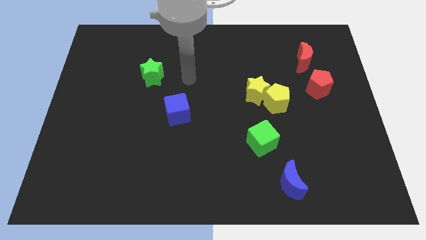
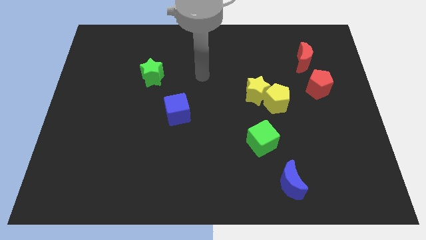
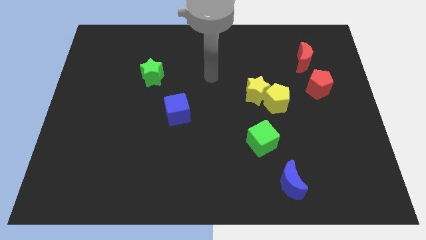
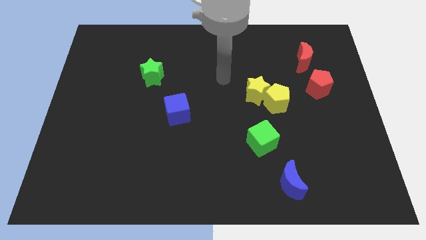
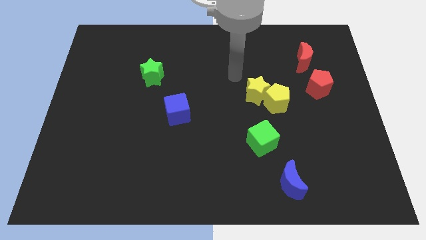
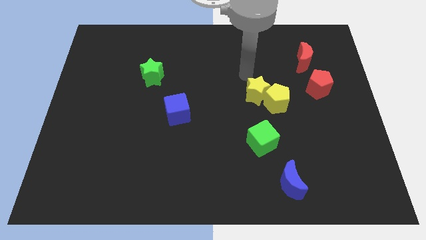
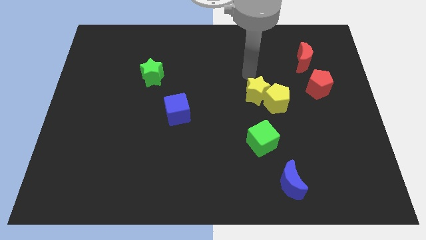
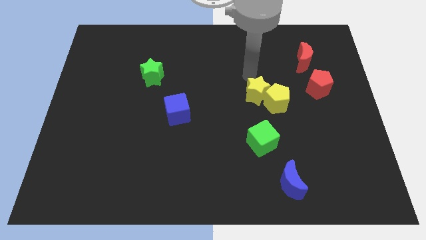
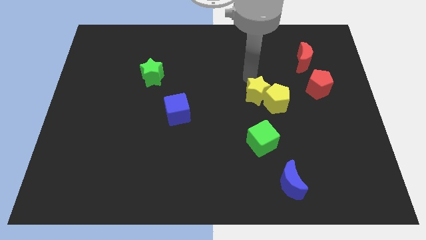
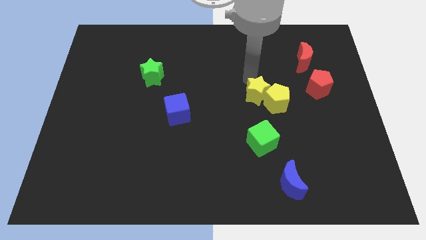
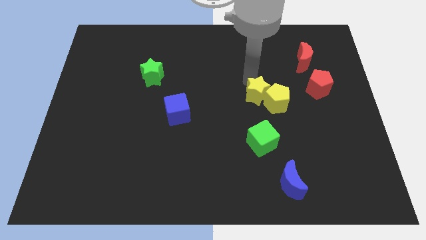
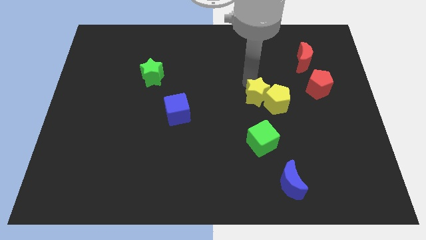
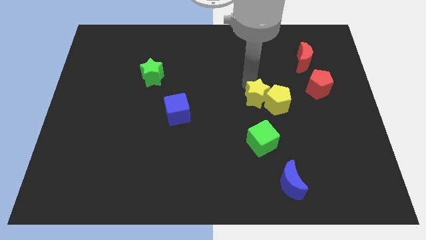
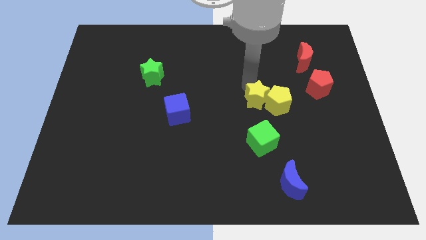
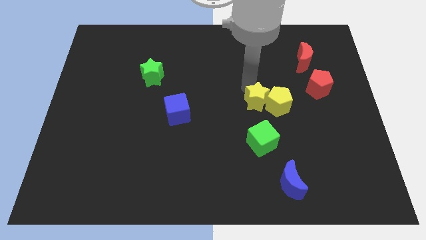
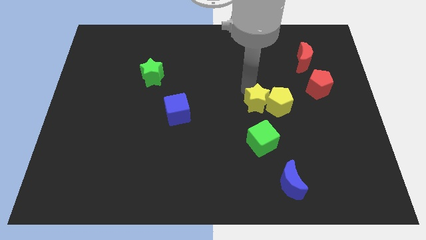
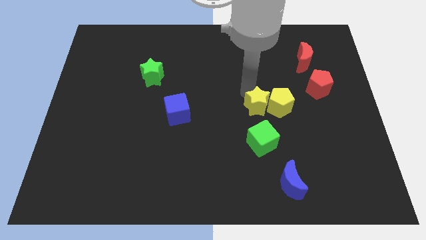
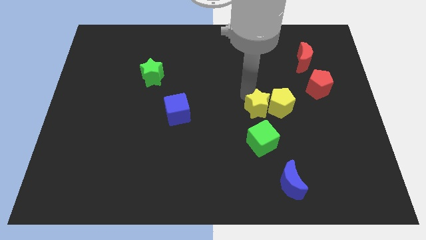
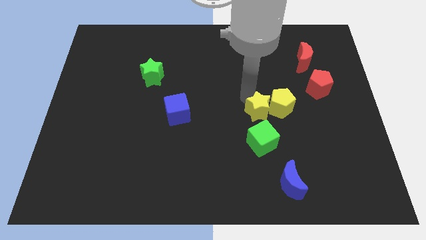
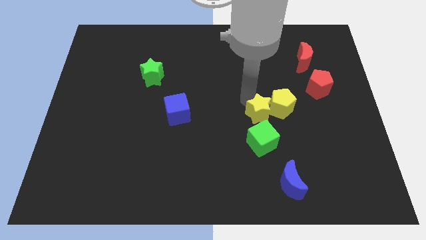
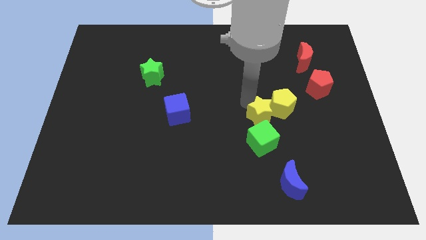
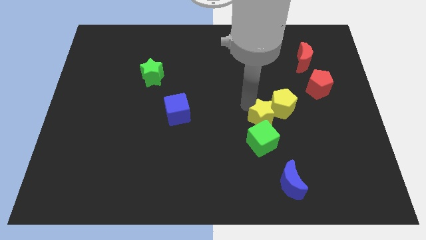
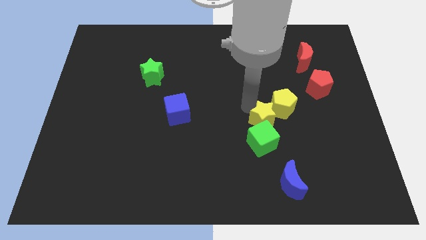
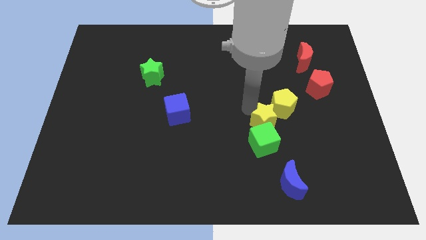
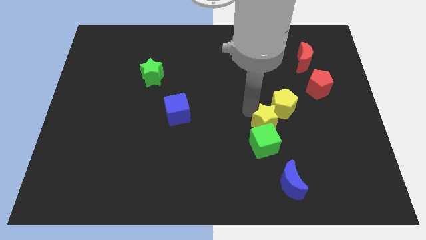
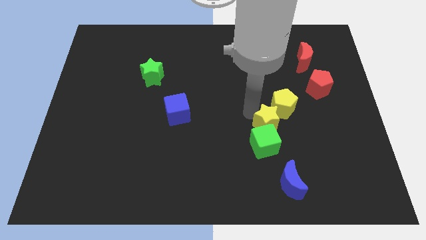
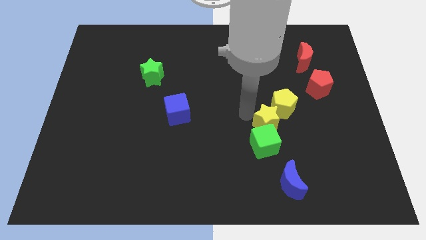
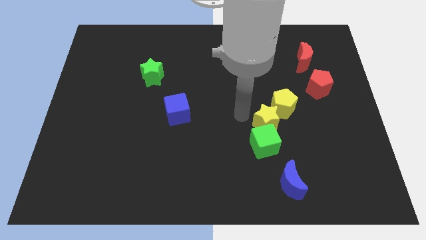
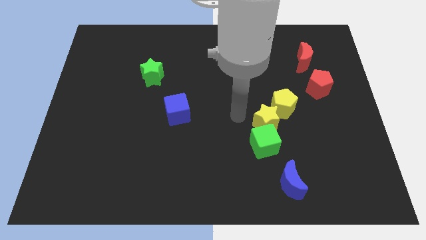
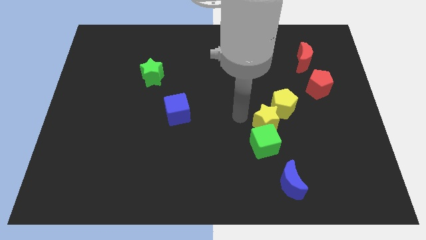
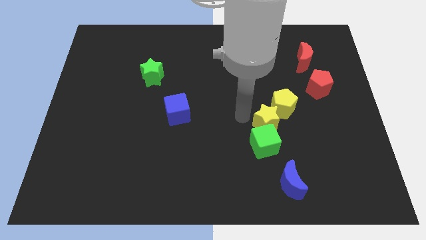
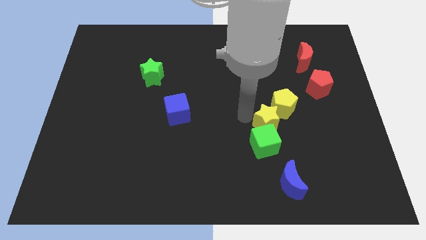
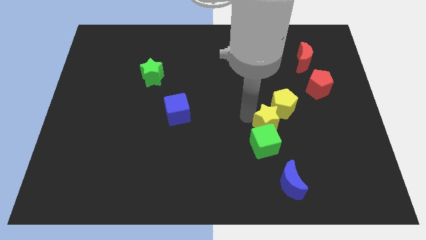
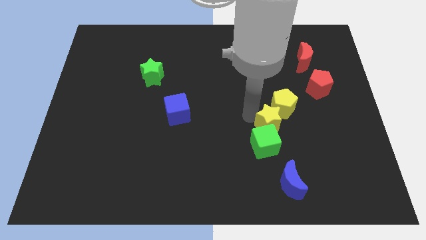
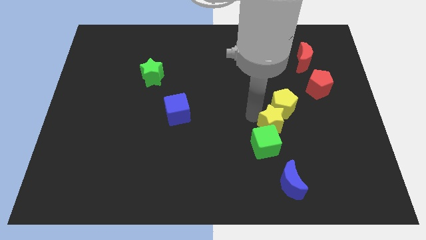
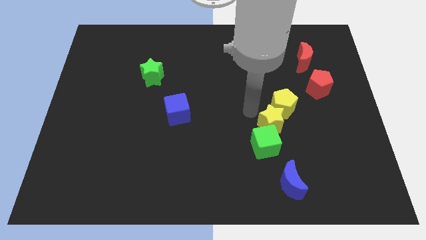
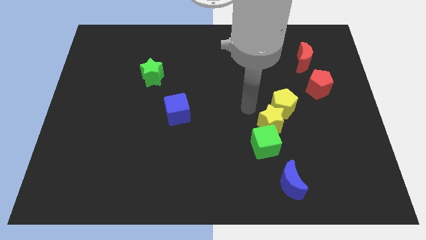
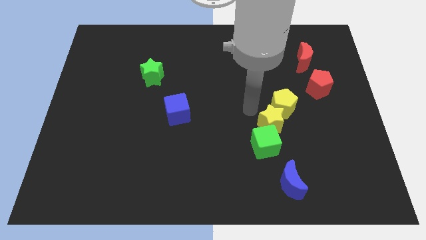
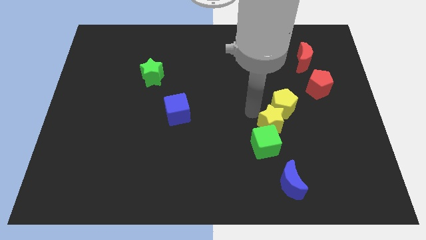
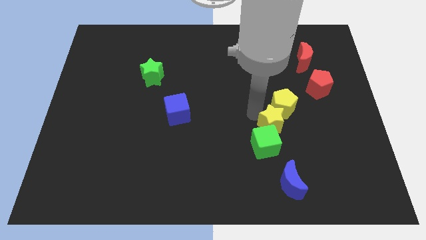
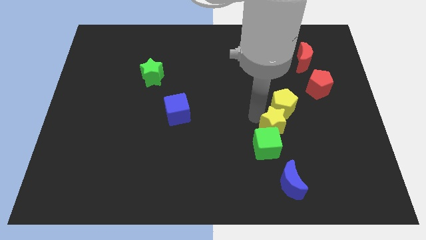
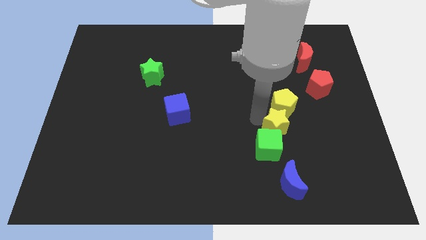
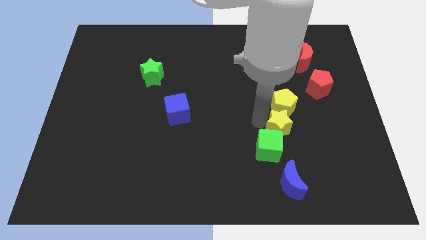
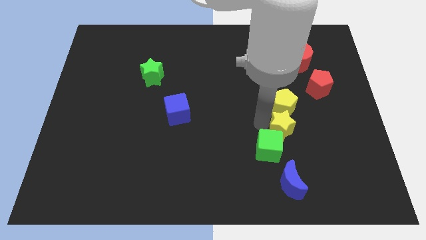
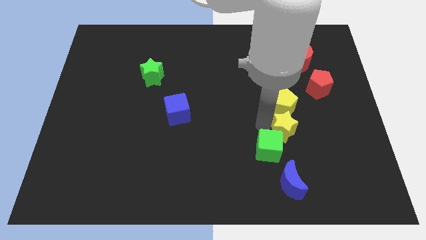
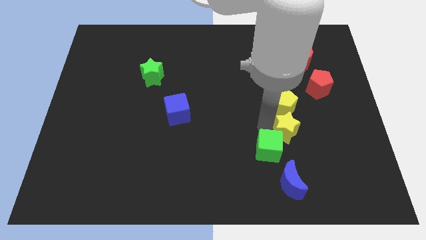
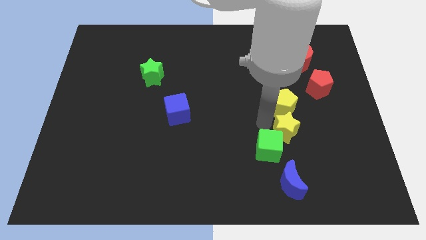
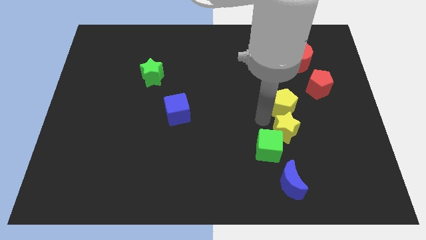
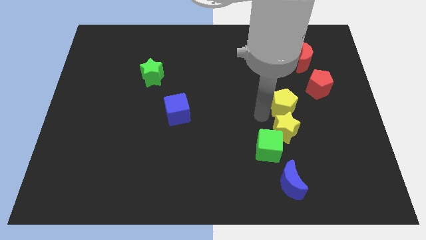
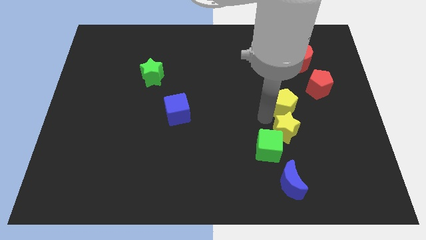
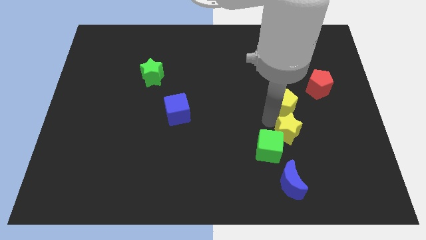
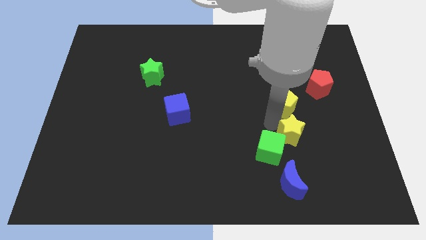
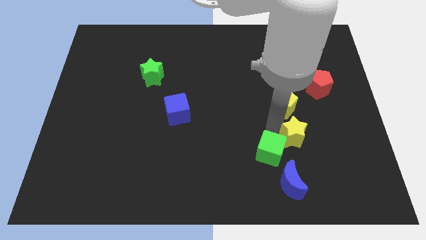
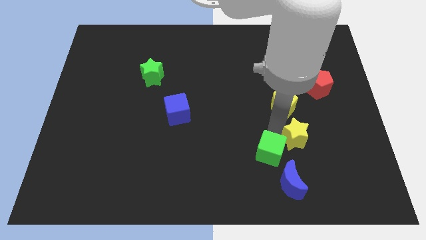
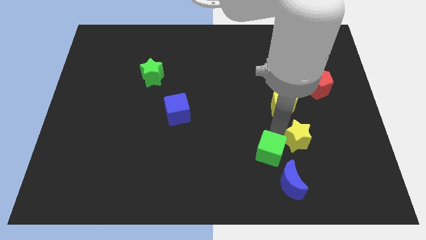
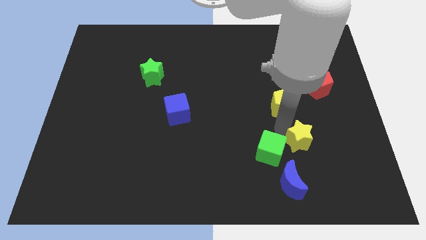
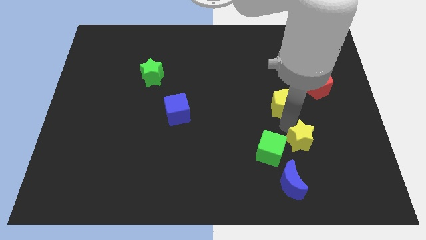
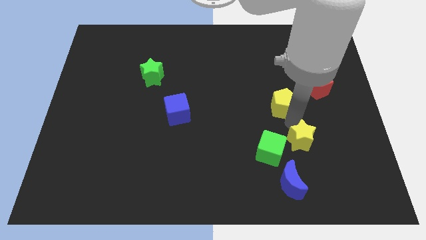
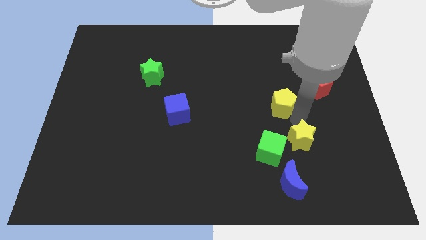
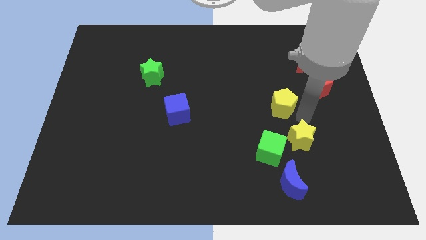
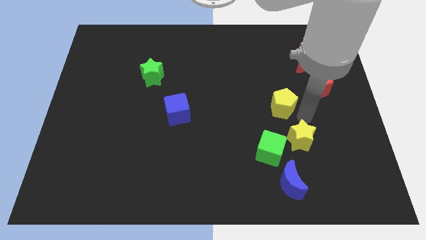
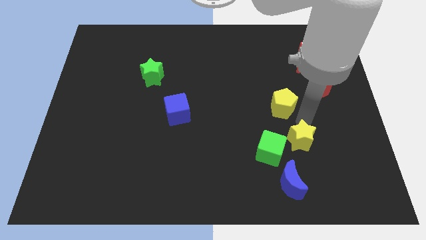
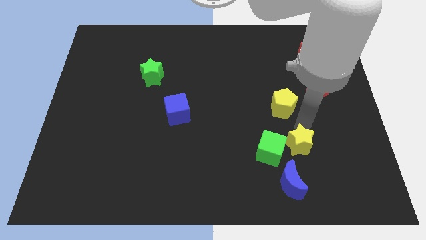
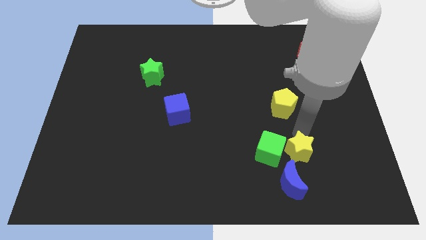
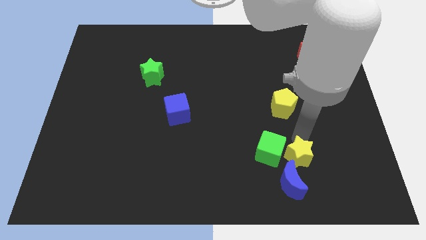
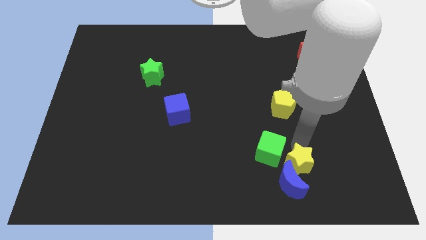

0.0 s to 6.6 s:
push the yellow star next to the blue moon
